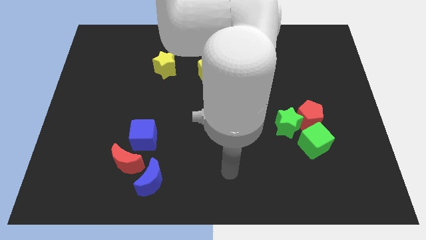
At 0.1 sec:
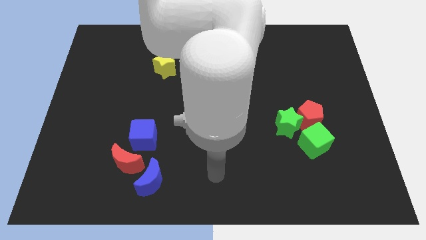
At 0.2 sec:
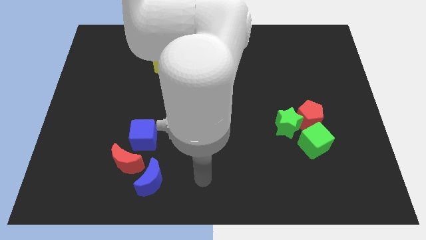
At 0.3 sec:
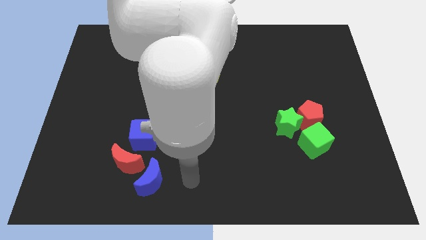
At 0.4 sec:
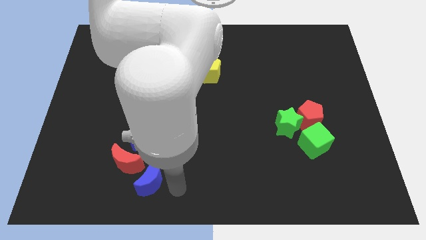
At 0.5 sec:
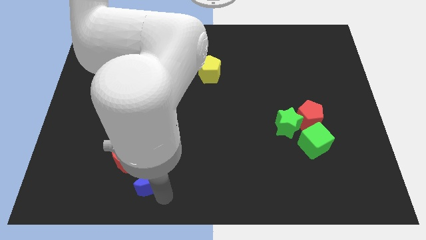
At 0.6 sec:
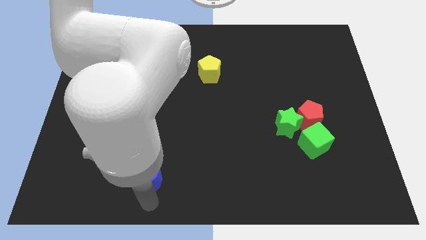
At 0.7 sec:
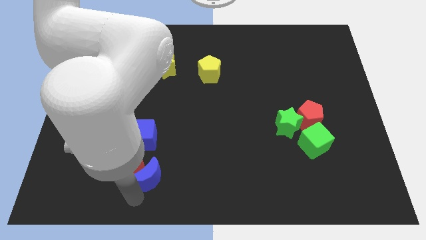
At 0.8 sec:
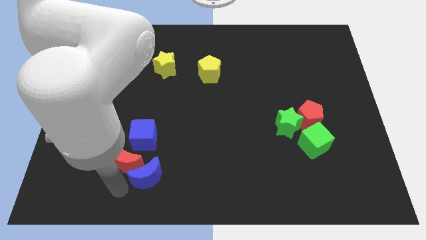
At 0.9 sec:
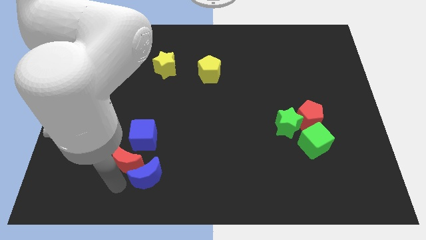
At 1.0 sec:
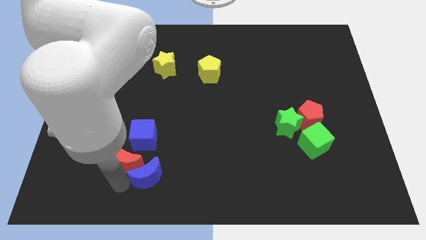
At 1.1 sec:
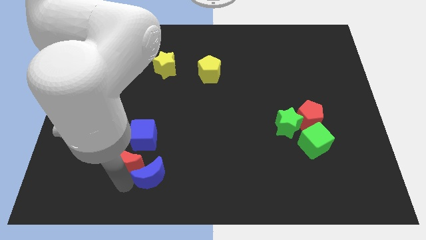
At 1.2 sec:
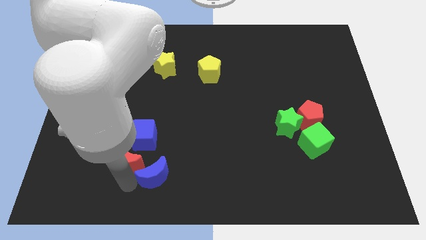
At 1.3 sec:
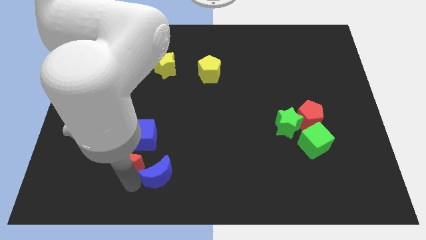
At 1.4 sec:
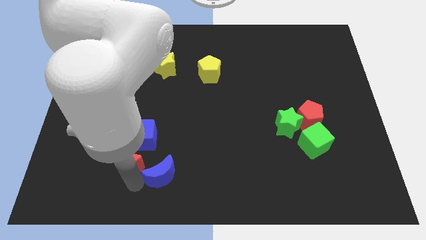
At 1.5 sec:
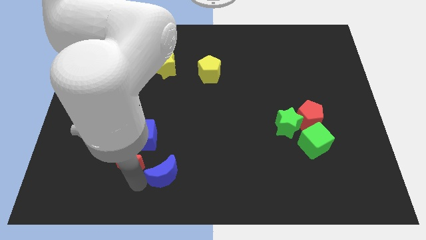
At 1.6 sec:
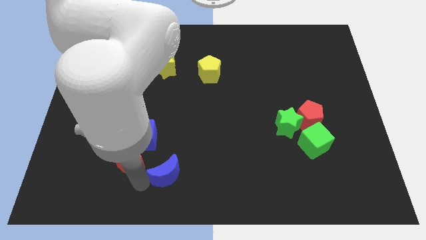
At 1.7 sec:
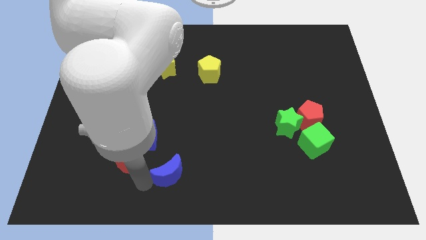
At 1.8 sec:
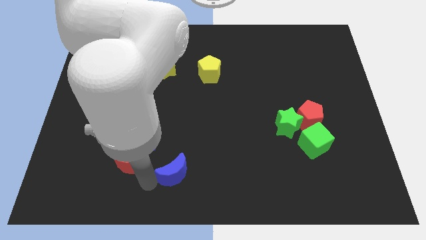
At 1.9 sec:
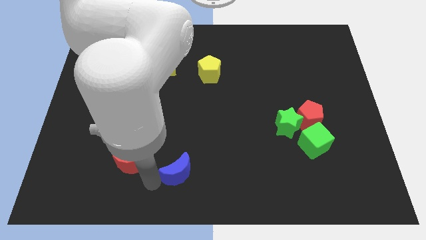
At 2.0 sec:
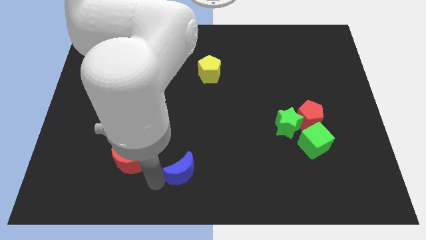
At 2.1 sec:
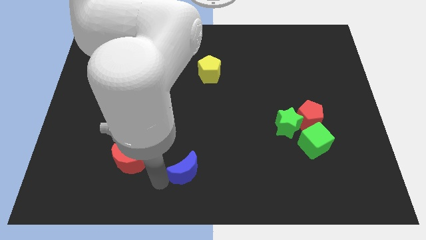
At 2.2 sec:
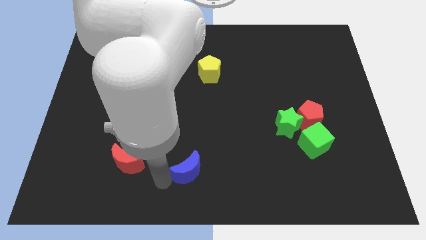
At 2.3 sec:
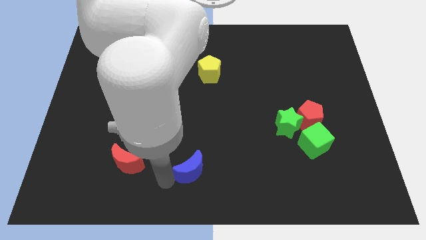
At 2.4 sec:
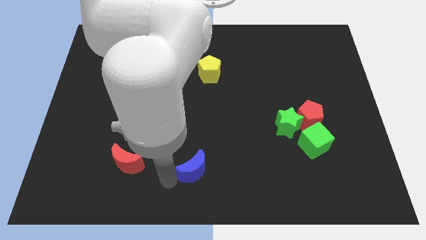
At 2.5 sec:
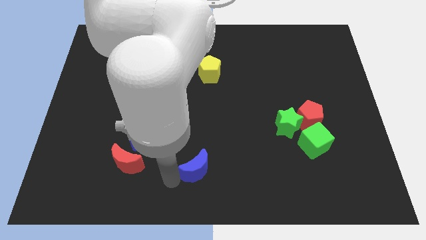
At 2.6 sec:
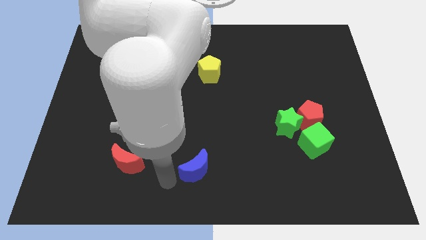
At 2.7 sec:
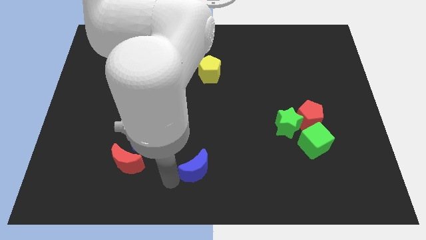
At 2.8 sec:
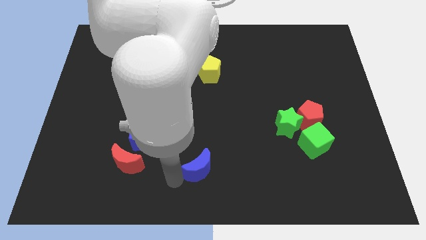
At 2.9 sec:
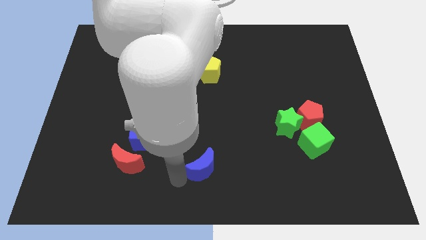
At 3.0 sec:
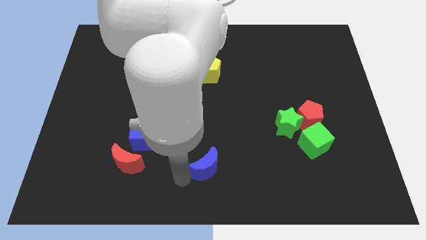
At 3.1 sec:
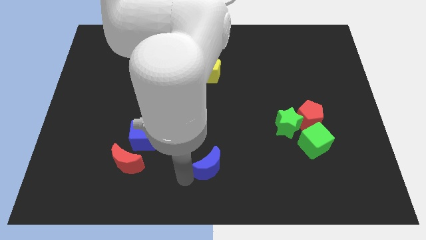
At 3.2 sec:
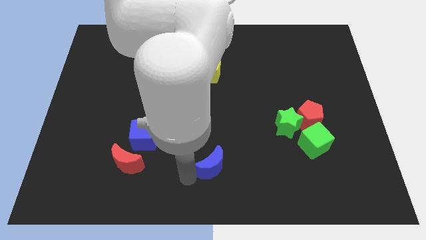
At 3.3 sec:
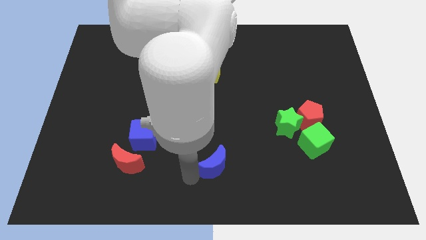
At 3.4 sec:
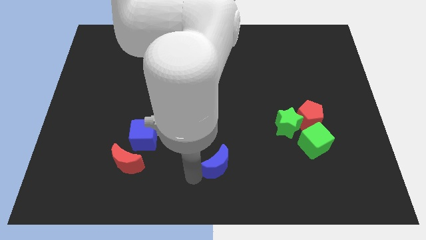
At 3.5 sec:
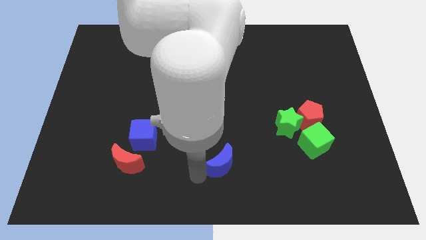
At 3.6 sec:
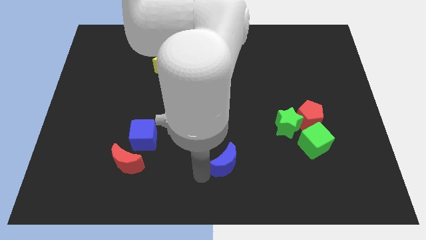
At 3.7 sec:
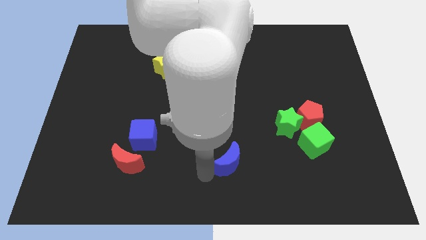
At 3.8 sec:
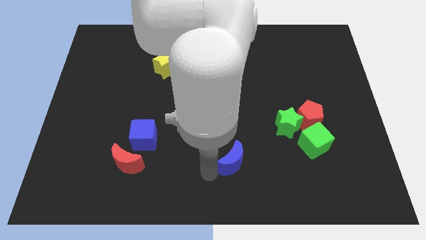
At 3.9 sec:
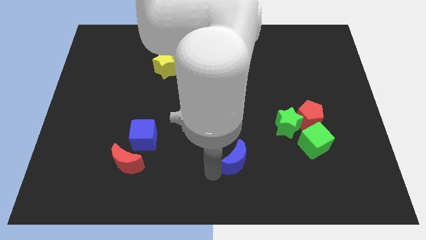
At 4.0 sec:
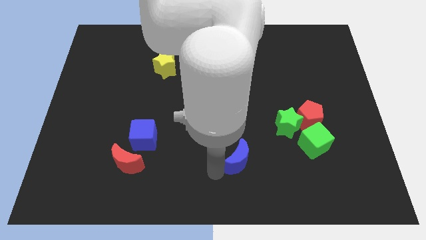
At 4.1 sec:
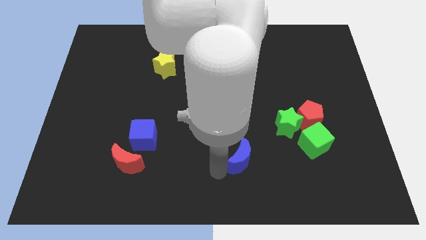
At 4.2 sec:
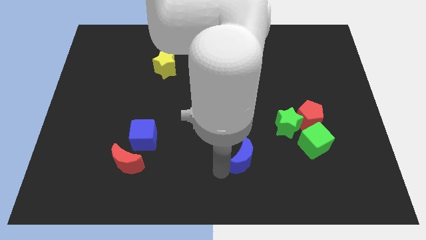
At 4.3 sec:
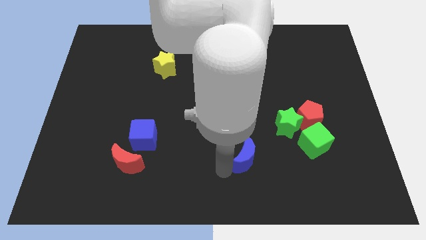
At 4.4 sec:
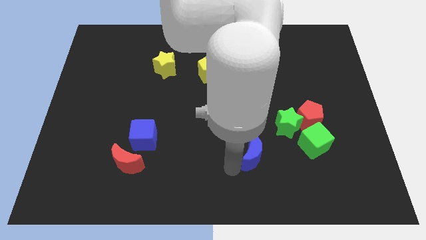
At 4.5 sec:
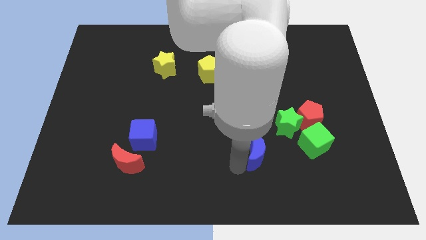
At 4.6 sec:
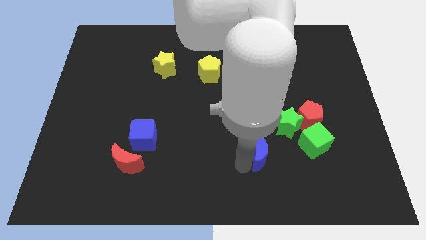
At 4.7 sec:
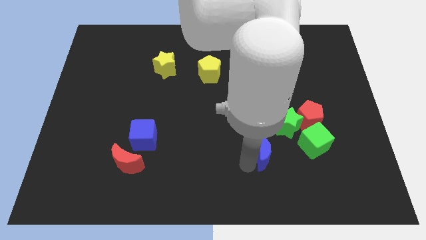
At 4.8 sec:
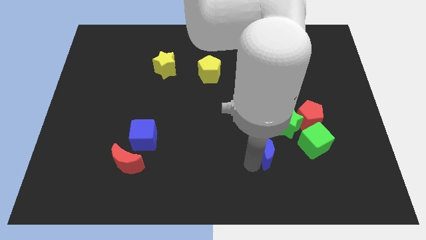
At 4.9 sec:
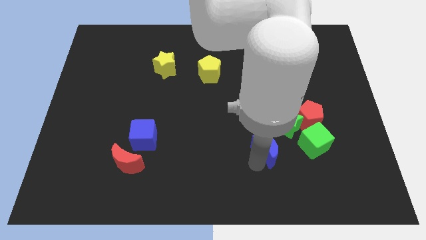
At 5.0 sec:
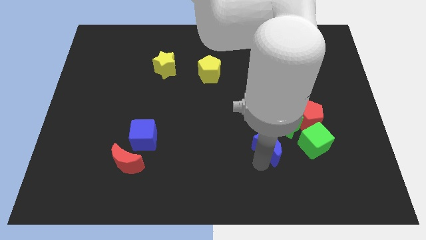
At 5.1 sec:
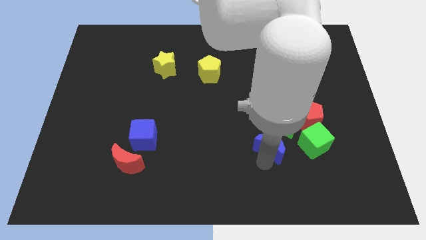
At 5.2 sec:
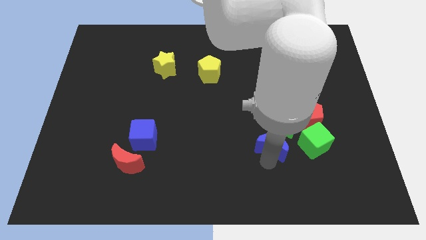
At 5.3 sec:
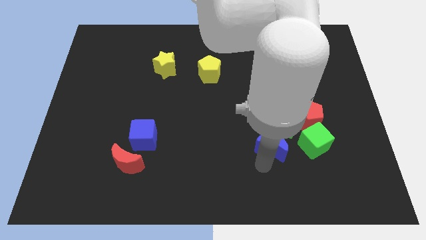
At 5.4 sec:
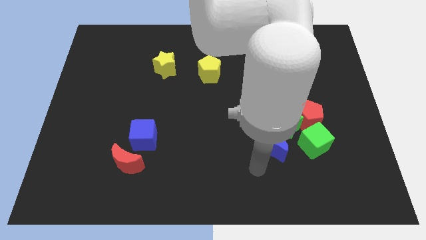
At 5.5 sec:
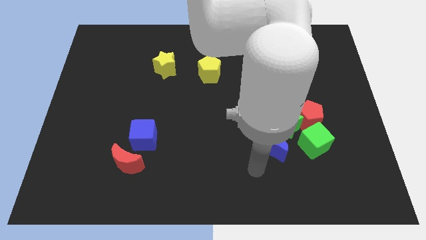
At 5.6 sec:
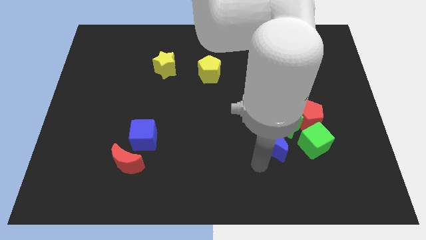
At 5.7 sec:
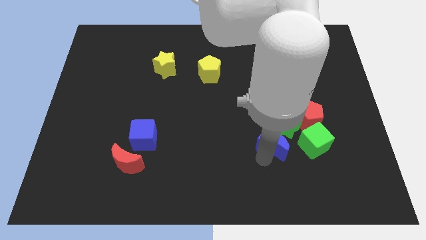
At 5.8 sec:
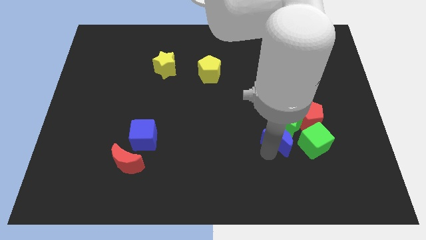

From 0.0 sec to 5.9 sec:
push the blue moon close to the green star
